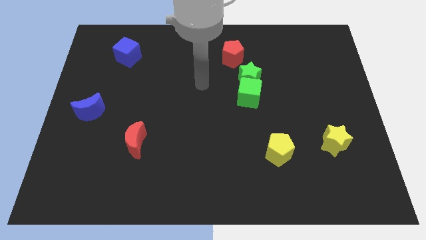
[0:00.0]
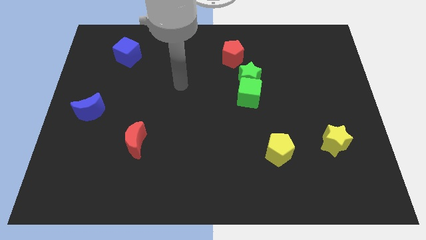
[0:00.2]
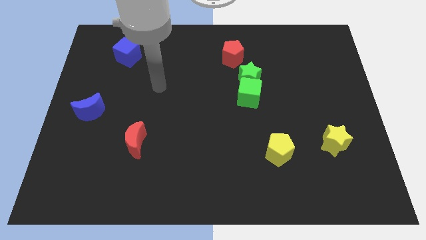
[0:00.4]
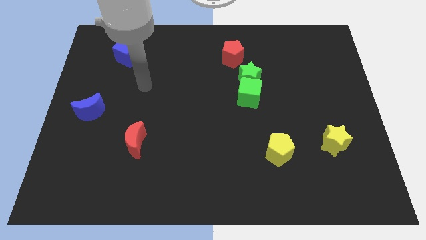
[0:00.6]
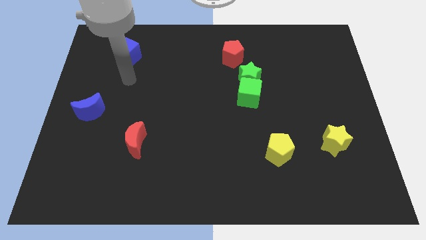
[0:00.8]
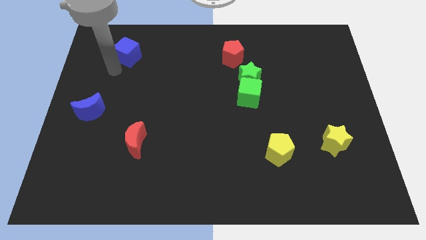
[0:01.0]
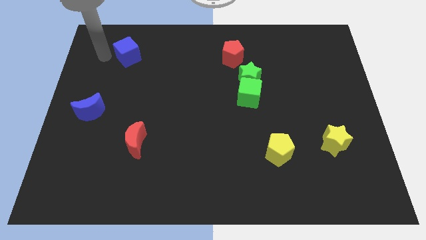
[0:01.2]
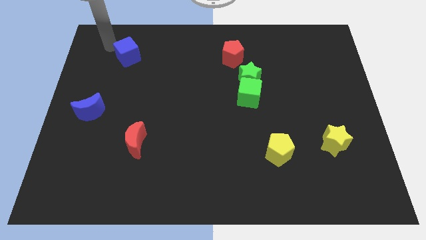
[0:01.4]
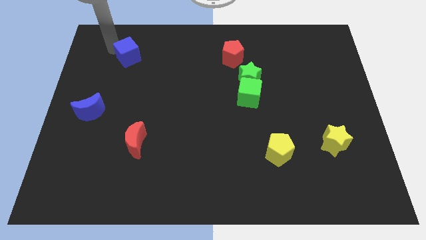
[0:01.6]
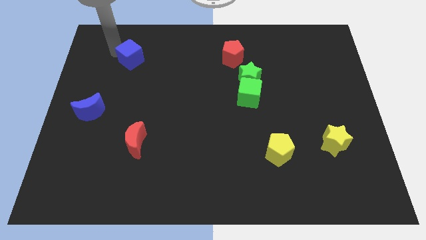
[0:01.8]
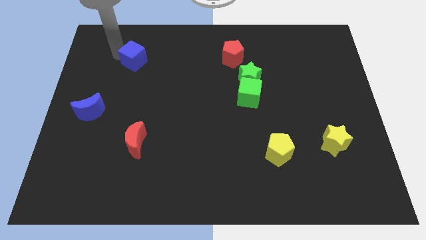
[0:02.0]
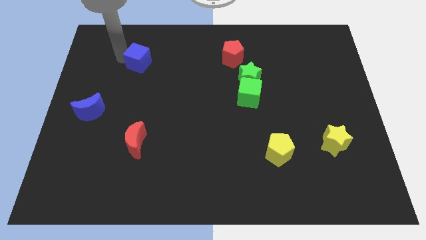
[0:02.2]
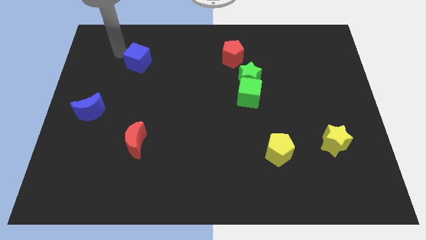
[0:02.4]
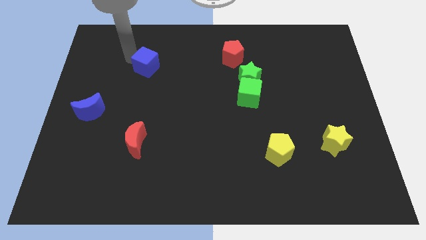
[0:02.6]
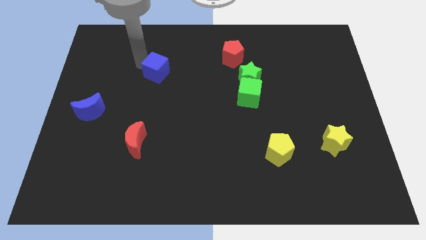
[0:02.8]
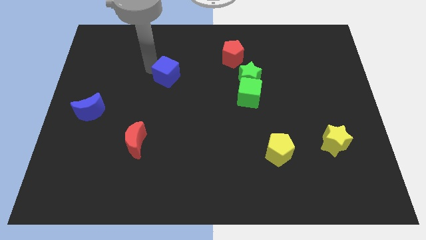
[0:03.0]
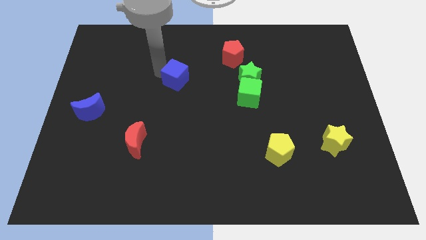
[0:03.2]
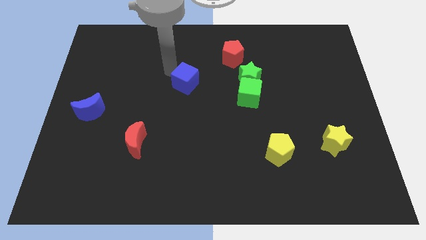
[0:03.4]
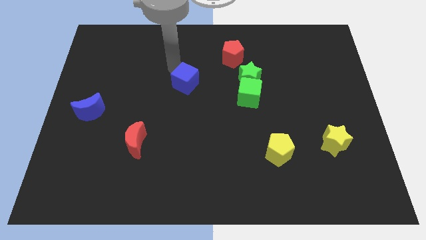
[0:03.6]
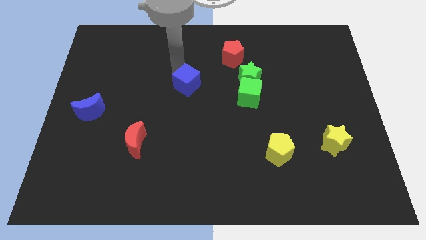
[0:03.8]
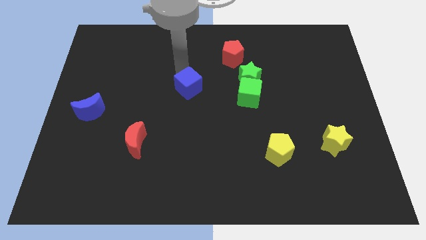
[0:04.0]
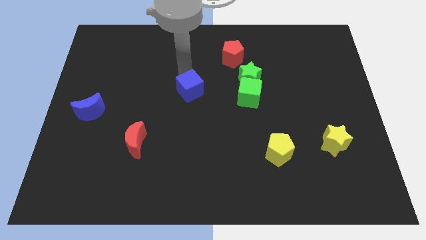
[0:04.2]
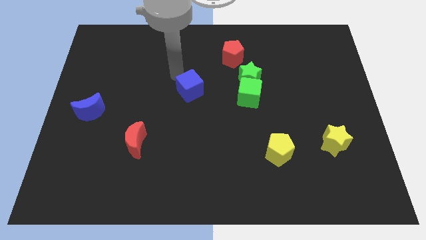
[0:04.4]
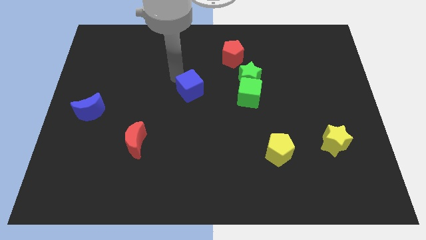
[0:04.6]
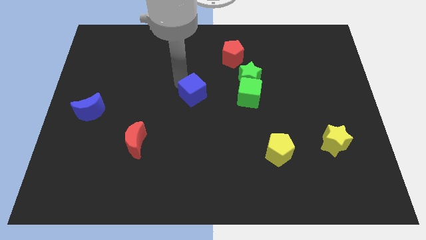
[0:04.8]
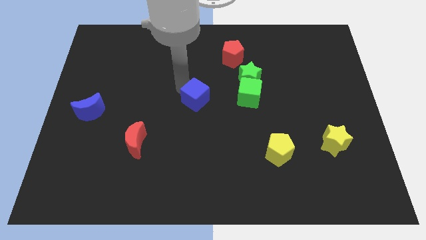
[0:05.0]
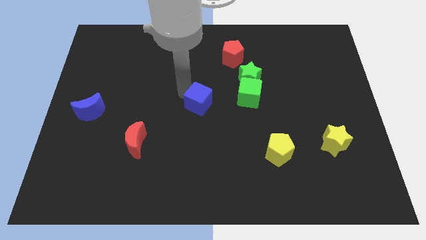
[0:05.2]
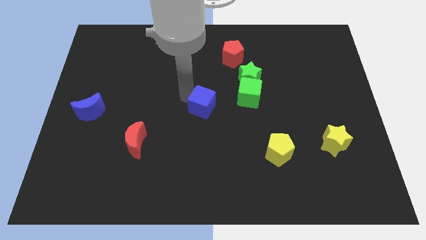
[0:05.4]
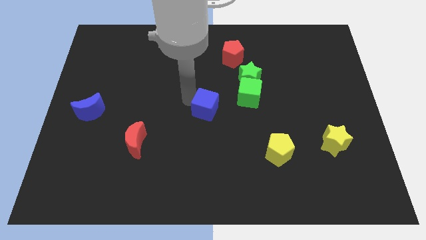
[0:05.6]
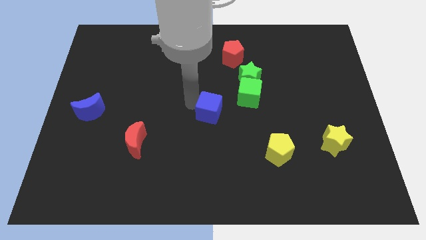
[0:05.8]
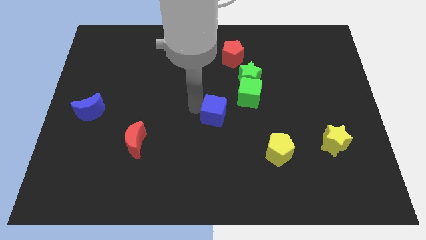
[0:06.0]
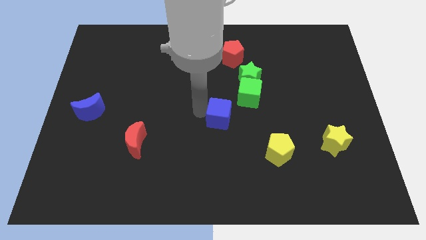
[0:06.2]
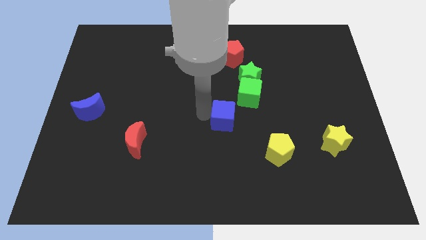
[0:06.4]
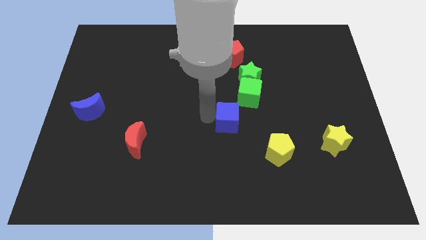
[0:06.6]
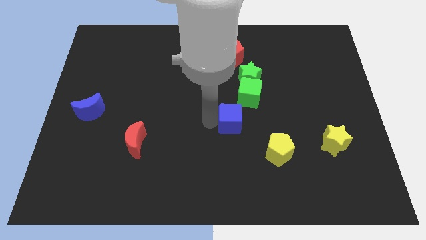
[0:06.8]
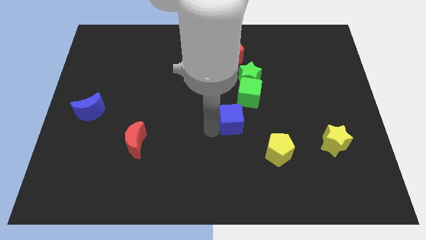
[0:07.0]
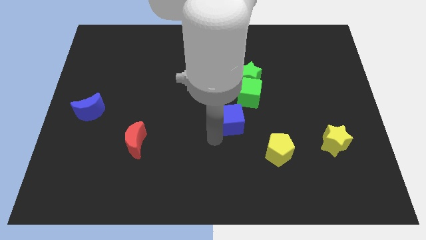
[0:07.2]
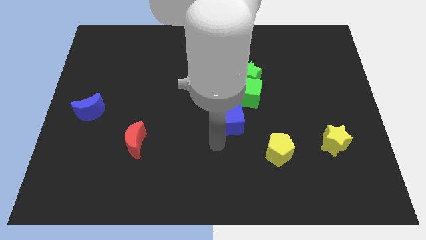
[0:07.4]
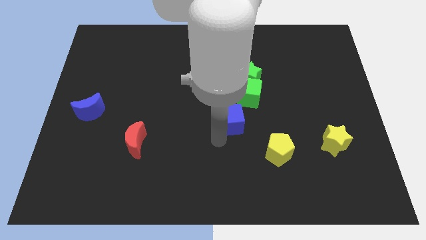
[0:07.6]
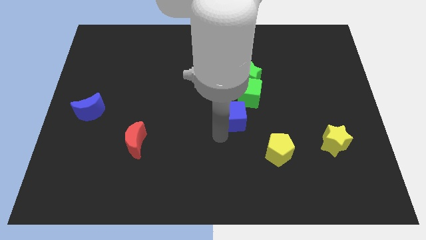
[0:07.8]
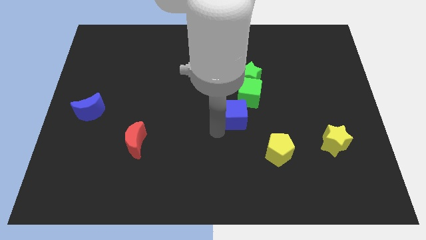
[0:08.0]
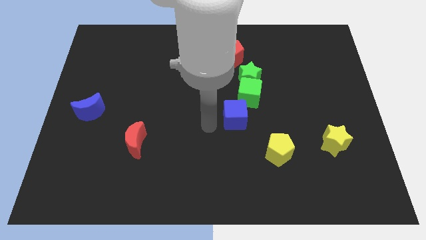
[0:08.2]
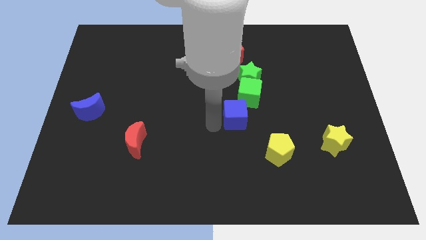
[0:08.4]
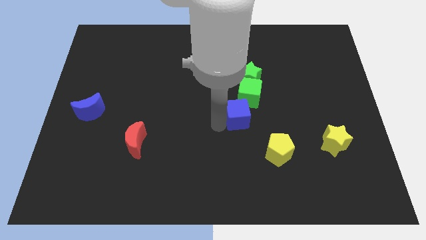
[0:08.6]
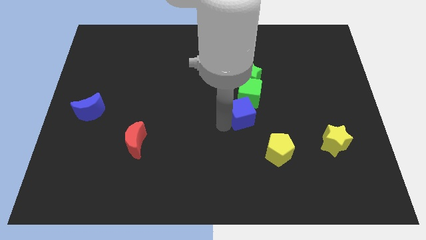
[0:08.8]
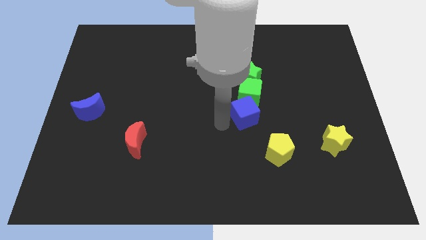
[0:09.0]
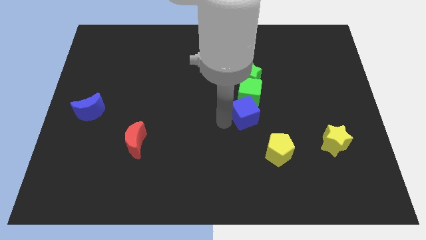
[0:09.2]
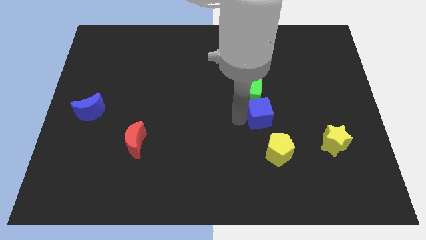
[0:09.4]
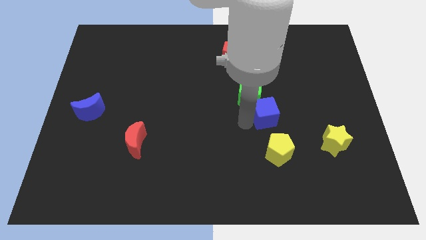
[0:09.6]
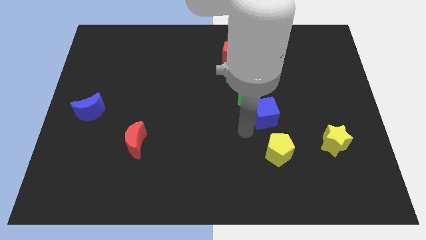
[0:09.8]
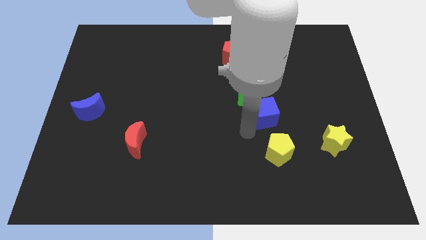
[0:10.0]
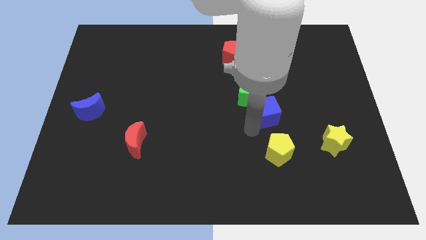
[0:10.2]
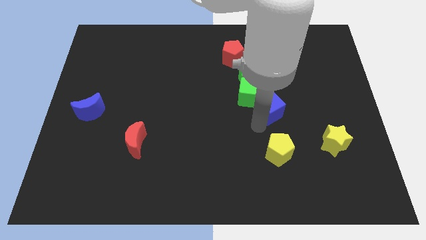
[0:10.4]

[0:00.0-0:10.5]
slide the blue cube to the right side of the green cube

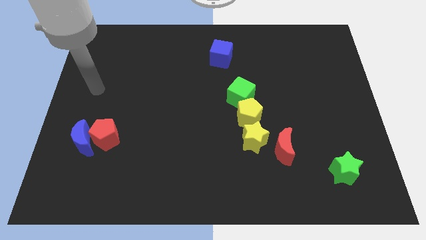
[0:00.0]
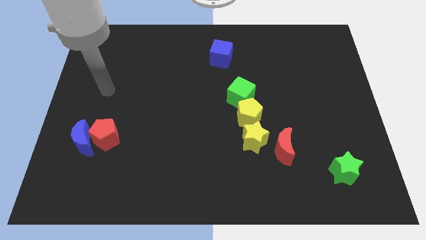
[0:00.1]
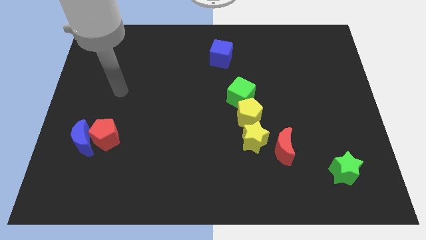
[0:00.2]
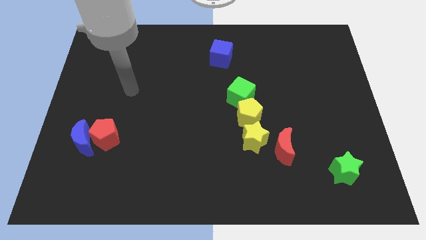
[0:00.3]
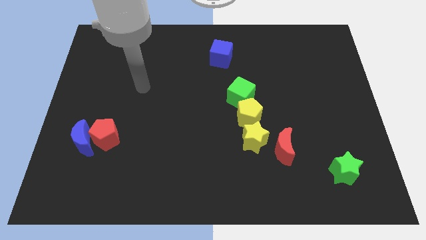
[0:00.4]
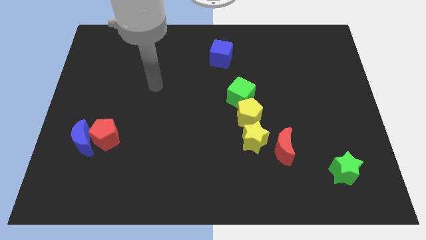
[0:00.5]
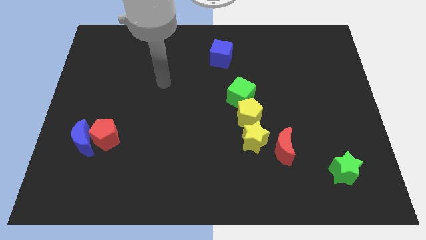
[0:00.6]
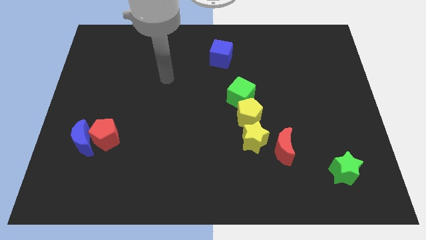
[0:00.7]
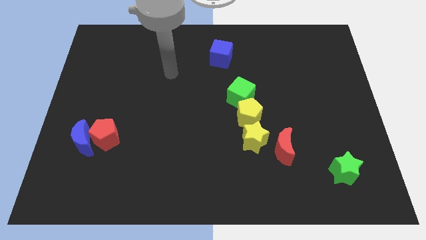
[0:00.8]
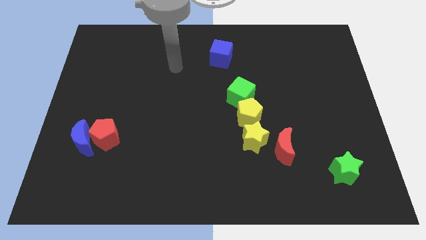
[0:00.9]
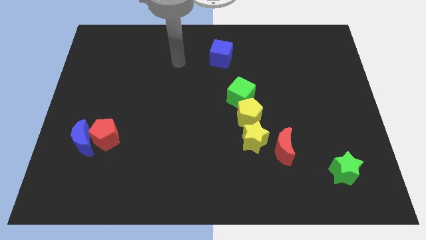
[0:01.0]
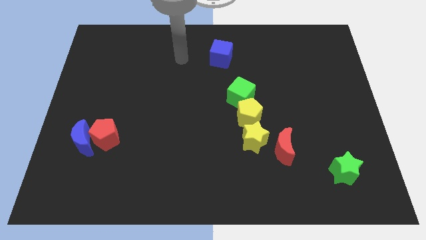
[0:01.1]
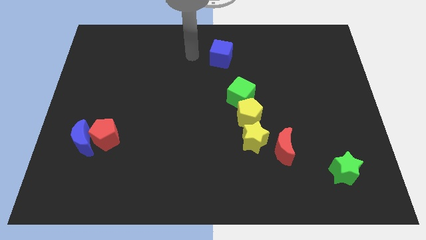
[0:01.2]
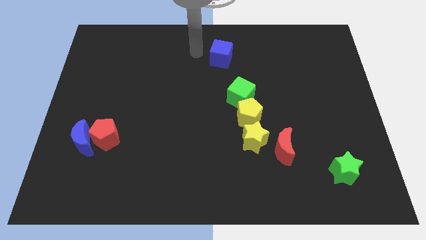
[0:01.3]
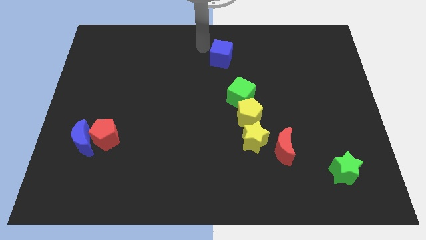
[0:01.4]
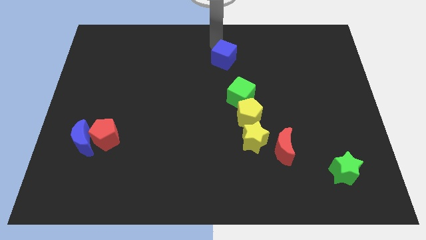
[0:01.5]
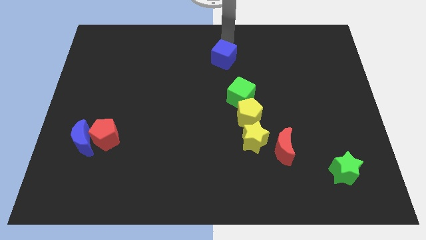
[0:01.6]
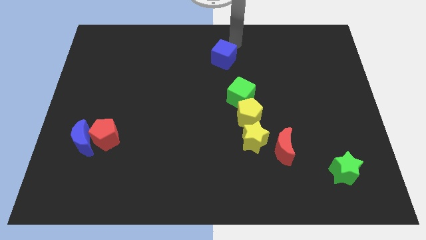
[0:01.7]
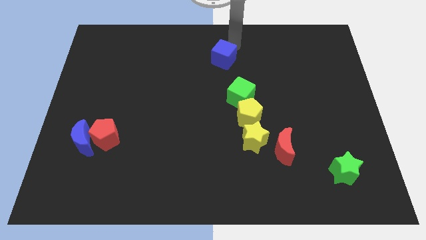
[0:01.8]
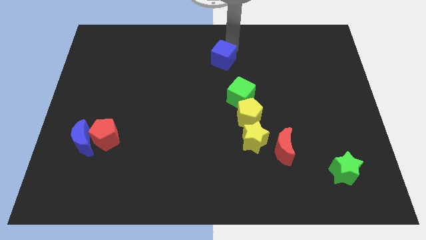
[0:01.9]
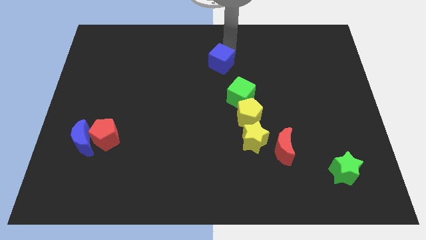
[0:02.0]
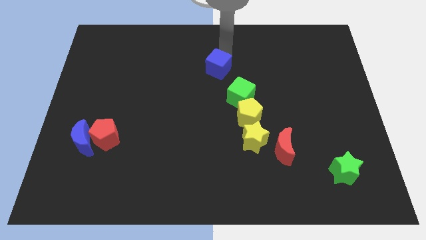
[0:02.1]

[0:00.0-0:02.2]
push the blue cube diagonally up and to the left of the green cube
